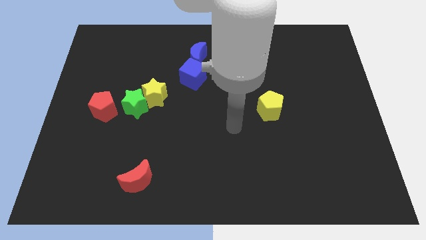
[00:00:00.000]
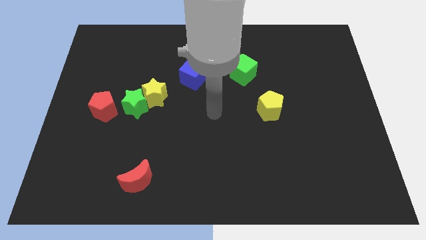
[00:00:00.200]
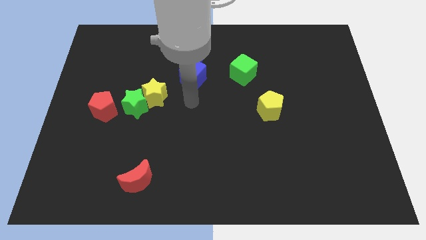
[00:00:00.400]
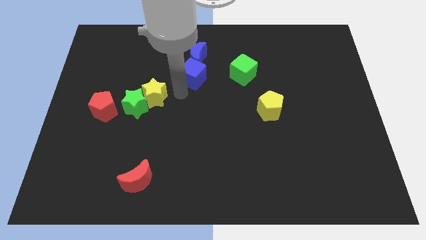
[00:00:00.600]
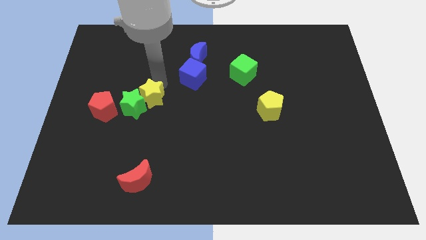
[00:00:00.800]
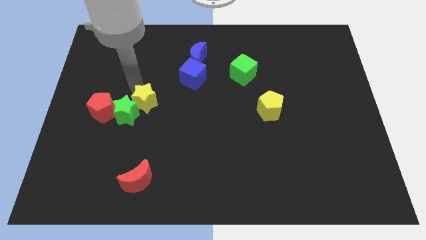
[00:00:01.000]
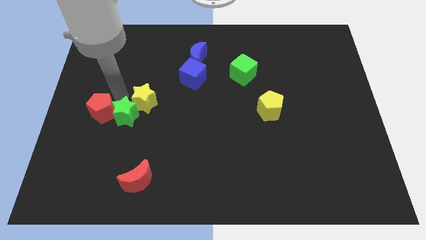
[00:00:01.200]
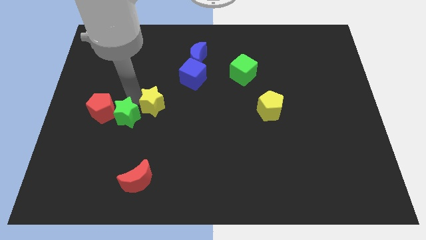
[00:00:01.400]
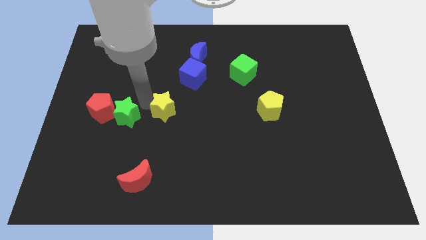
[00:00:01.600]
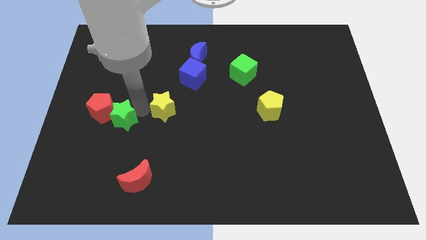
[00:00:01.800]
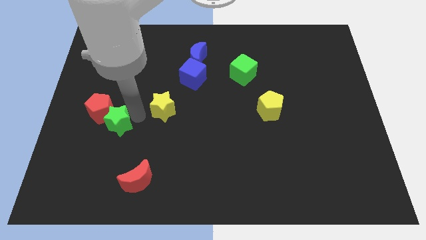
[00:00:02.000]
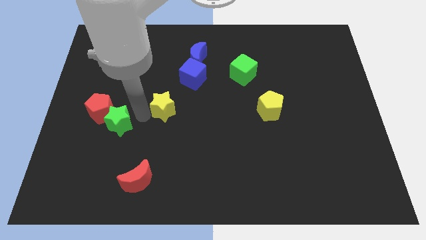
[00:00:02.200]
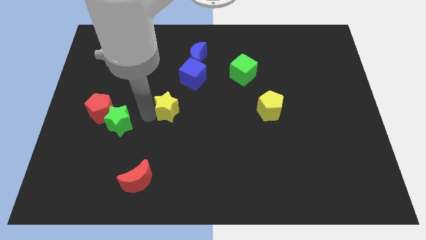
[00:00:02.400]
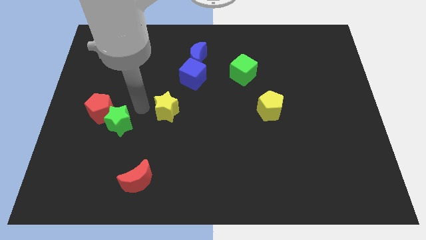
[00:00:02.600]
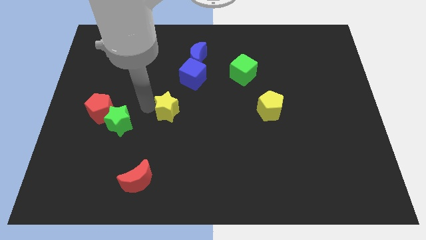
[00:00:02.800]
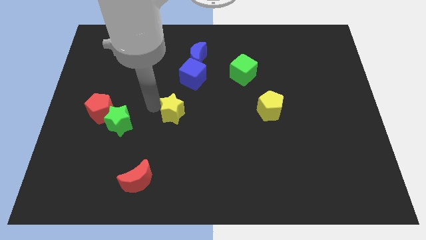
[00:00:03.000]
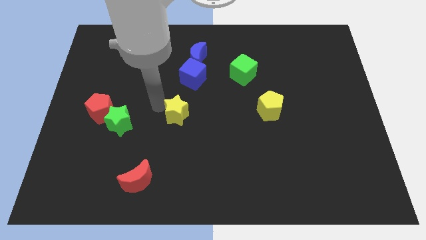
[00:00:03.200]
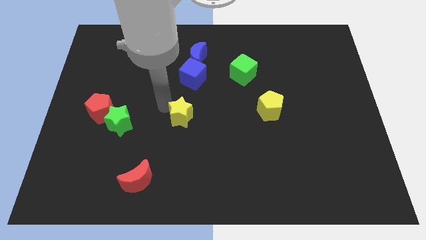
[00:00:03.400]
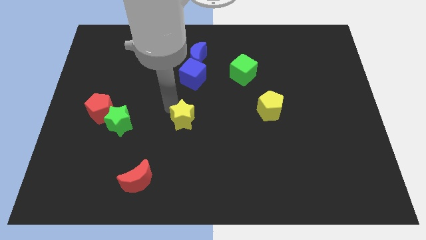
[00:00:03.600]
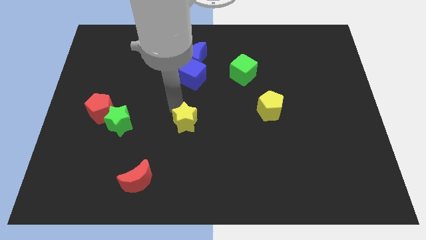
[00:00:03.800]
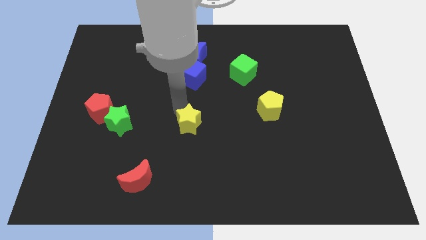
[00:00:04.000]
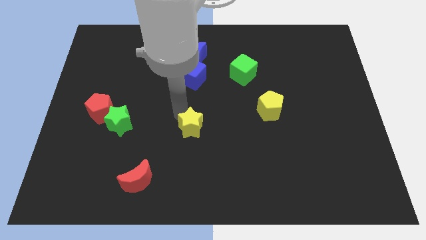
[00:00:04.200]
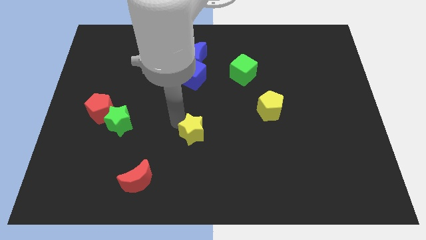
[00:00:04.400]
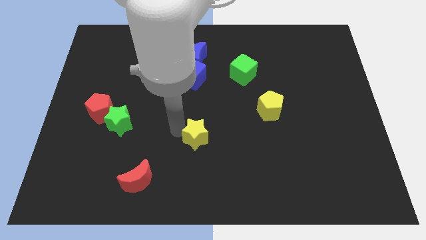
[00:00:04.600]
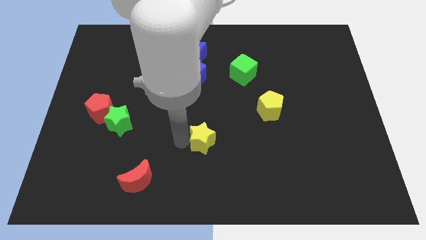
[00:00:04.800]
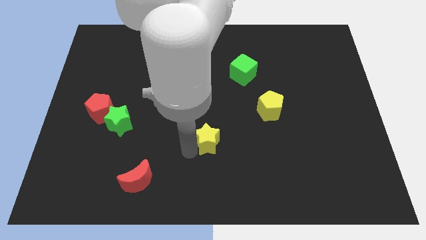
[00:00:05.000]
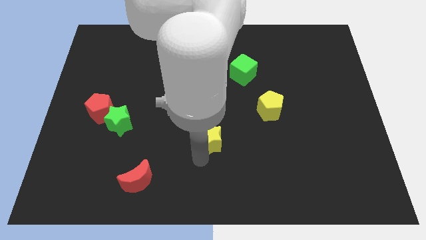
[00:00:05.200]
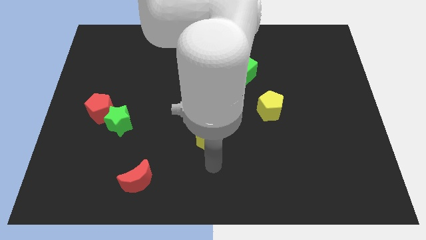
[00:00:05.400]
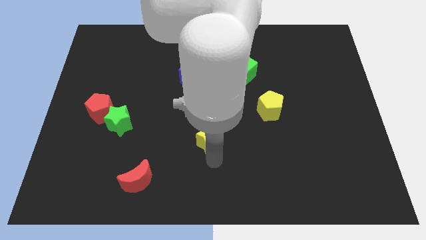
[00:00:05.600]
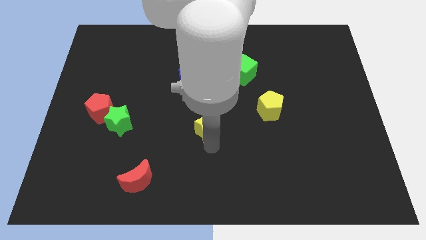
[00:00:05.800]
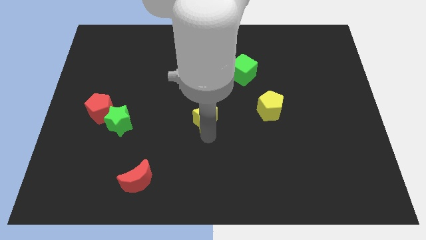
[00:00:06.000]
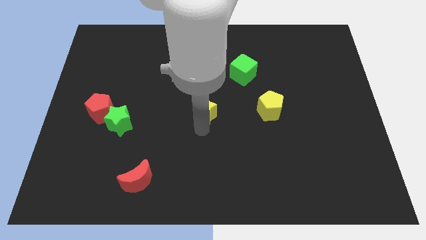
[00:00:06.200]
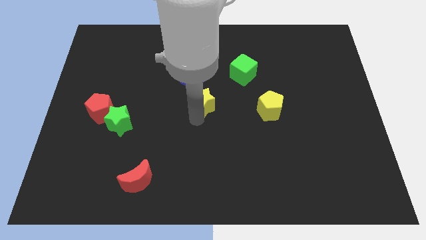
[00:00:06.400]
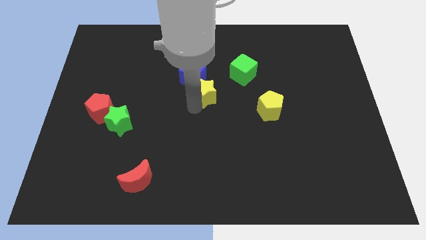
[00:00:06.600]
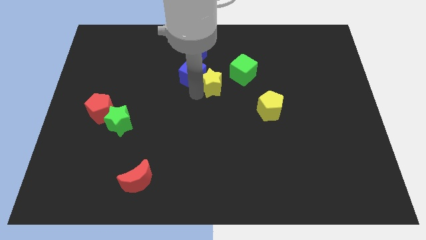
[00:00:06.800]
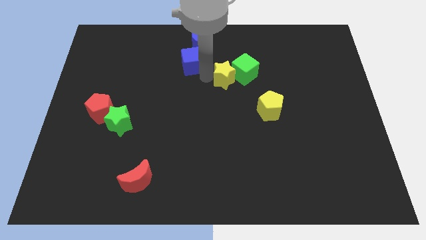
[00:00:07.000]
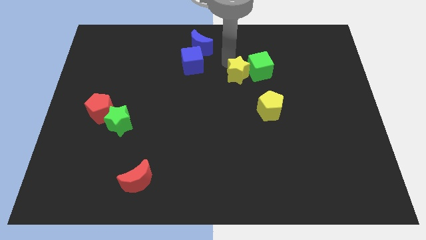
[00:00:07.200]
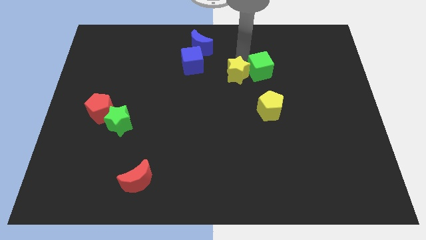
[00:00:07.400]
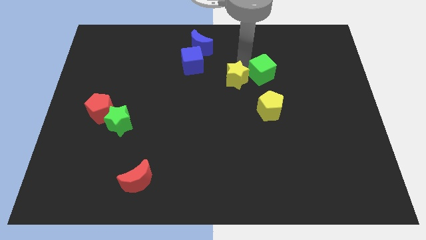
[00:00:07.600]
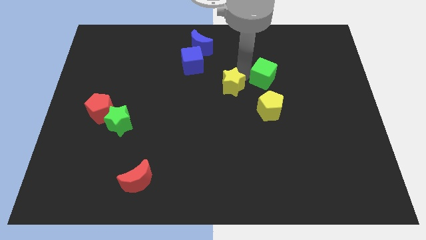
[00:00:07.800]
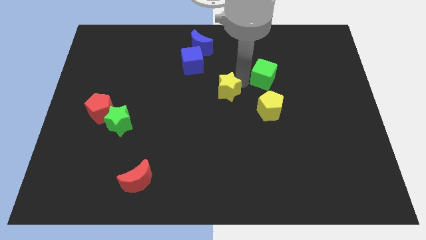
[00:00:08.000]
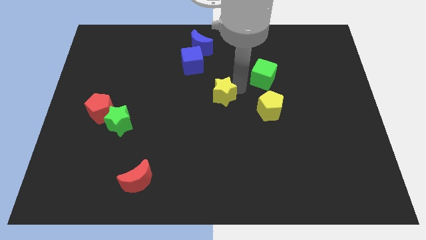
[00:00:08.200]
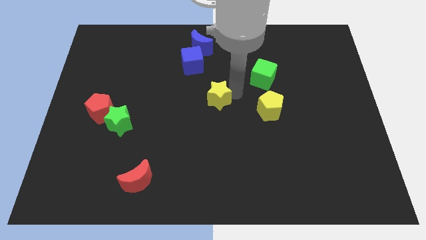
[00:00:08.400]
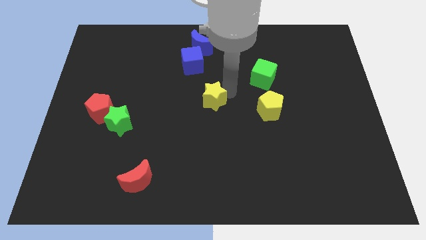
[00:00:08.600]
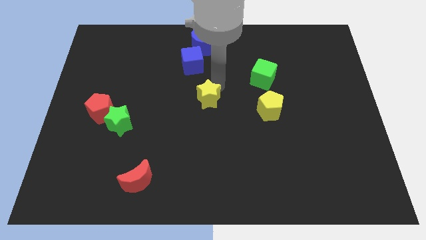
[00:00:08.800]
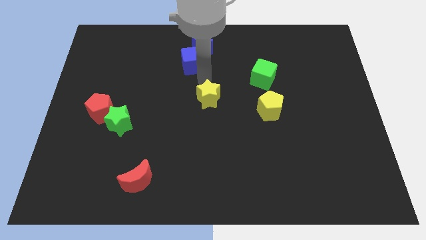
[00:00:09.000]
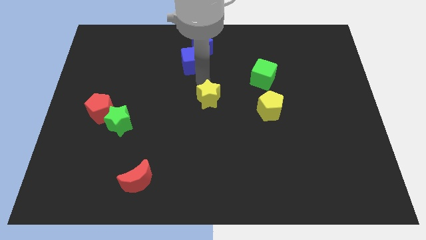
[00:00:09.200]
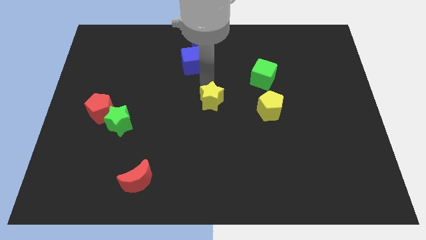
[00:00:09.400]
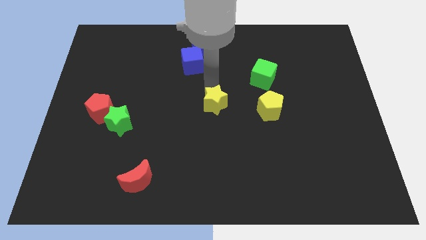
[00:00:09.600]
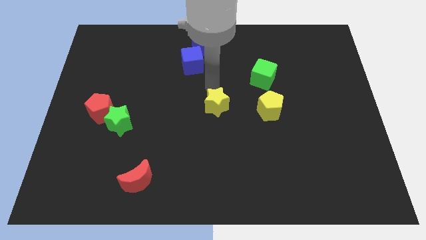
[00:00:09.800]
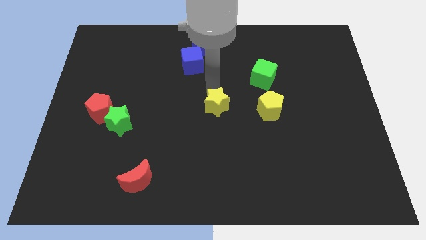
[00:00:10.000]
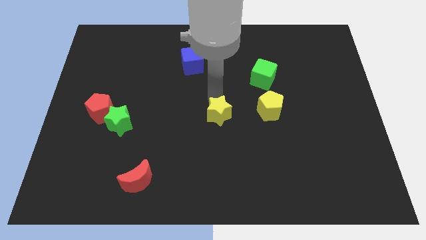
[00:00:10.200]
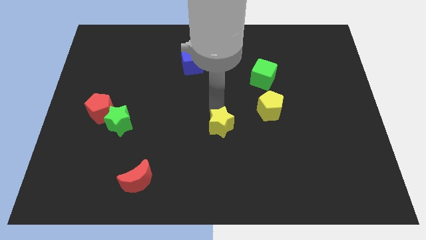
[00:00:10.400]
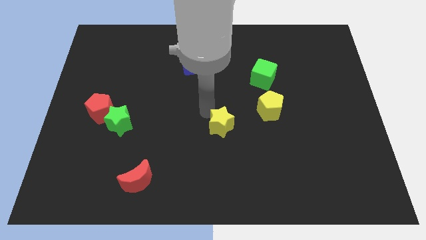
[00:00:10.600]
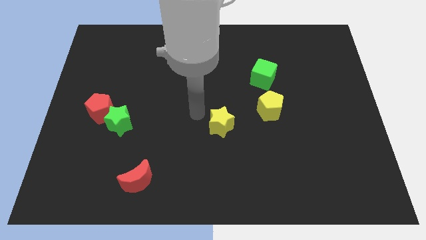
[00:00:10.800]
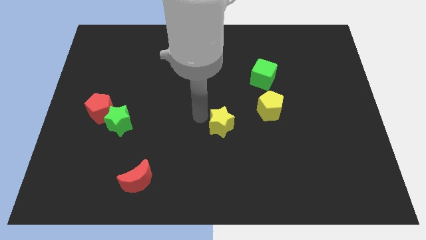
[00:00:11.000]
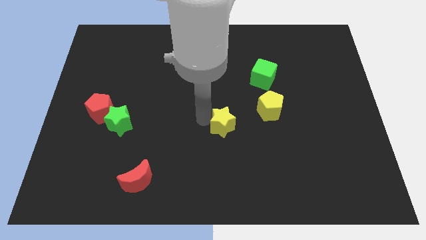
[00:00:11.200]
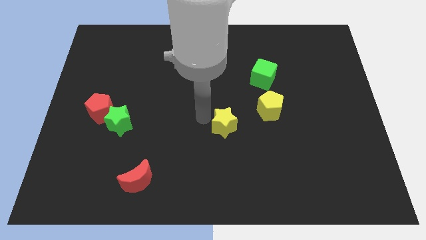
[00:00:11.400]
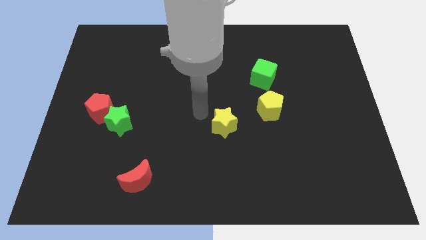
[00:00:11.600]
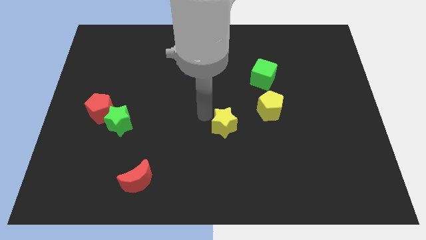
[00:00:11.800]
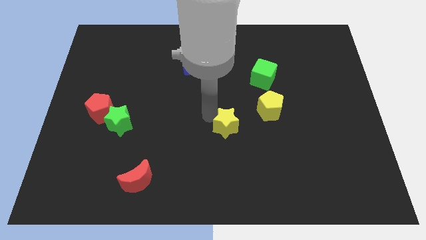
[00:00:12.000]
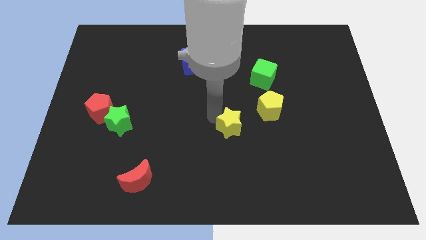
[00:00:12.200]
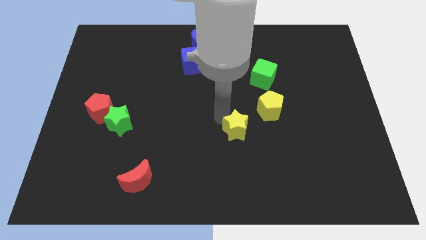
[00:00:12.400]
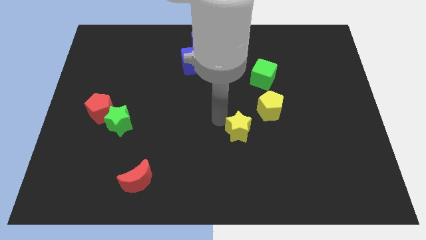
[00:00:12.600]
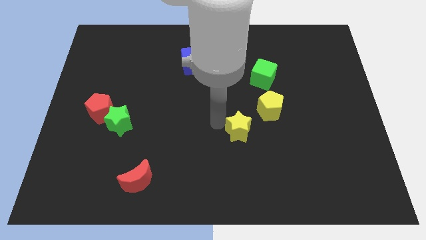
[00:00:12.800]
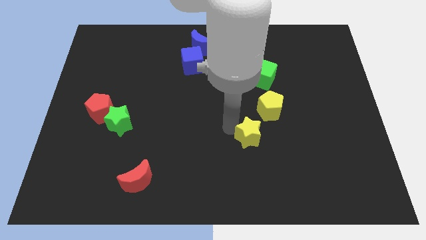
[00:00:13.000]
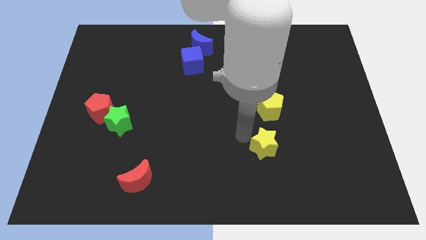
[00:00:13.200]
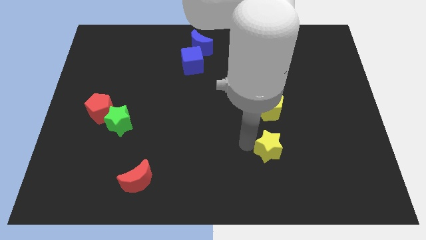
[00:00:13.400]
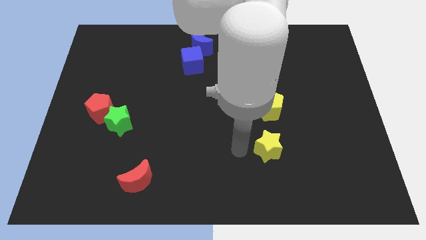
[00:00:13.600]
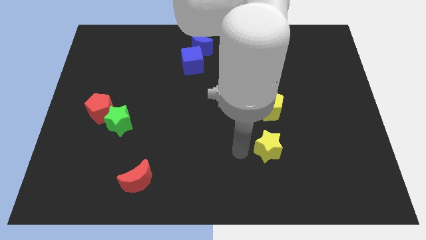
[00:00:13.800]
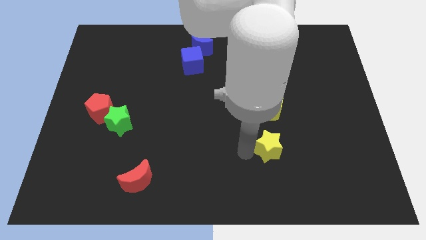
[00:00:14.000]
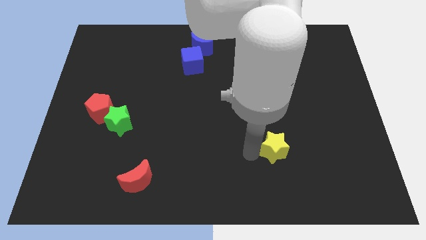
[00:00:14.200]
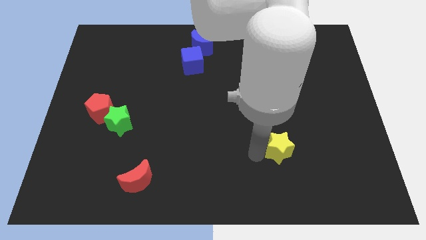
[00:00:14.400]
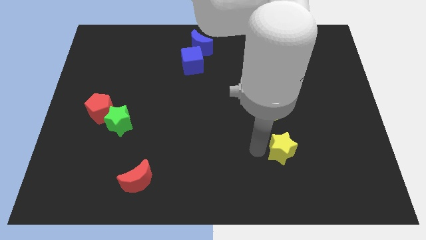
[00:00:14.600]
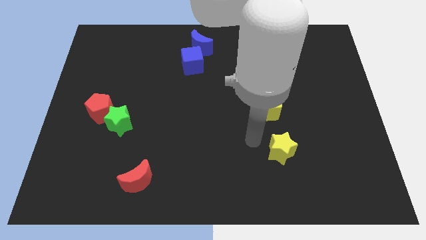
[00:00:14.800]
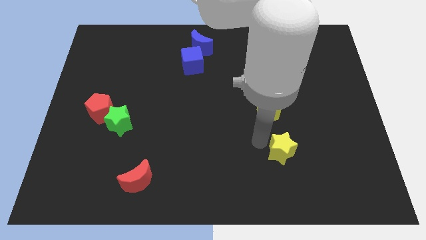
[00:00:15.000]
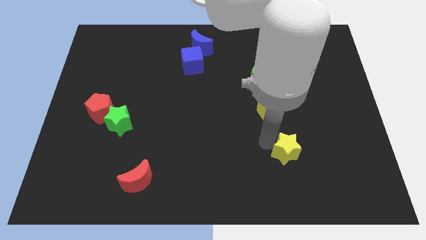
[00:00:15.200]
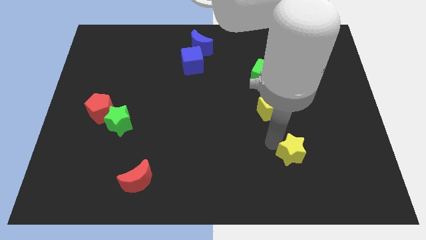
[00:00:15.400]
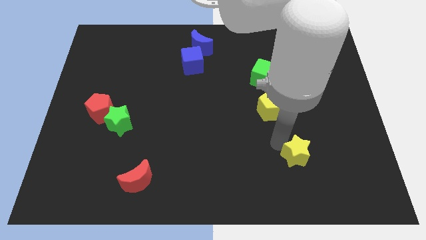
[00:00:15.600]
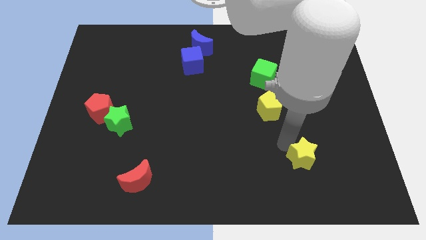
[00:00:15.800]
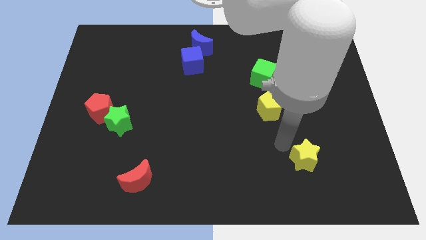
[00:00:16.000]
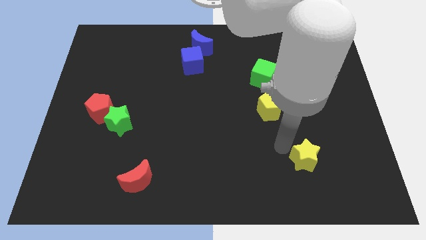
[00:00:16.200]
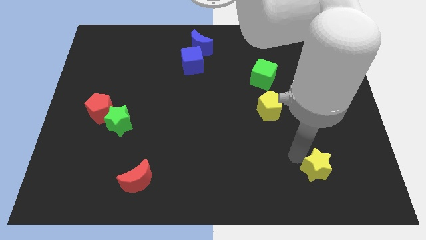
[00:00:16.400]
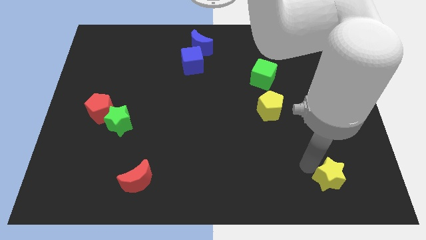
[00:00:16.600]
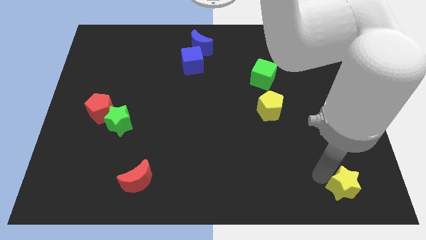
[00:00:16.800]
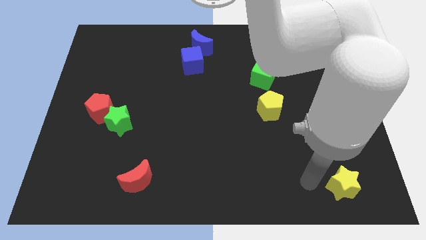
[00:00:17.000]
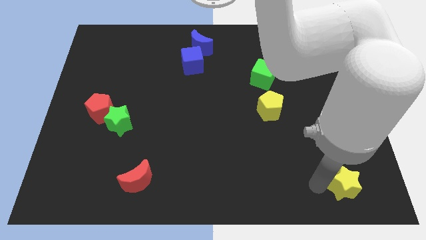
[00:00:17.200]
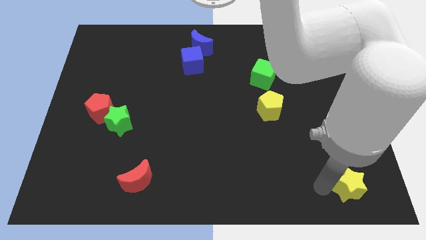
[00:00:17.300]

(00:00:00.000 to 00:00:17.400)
push the yellow star to the bottom right of the board
